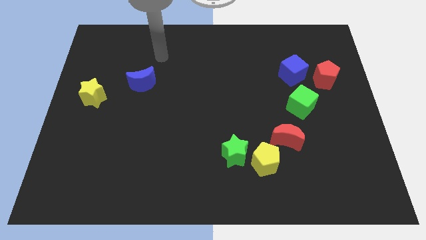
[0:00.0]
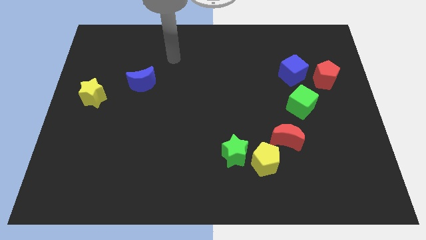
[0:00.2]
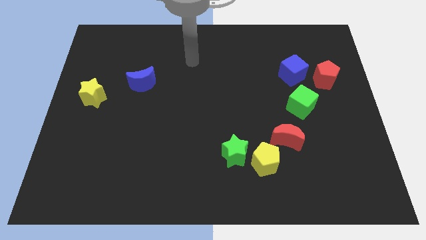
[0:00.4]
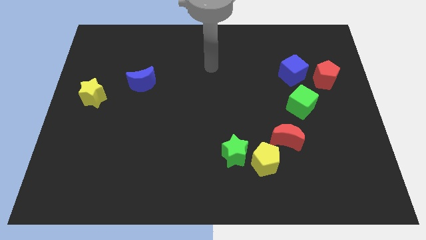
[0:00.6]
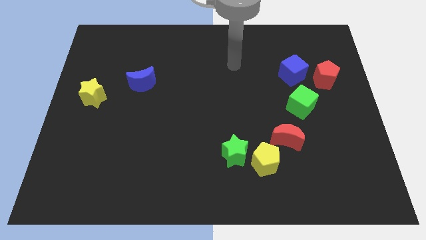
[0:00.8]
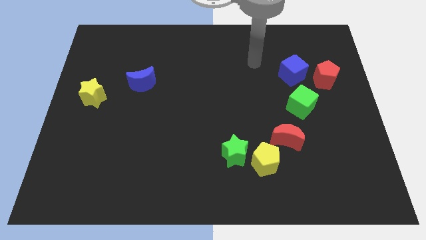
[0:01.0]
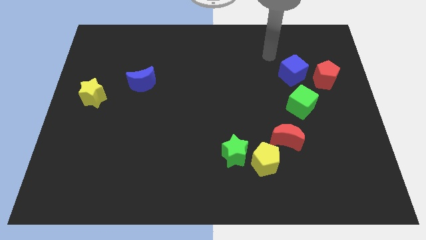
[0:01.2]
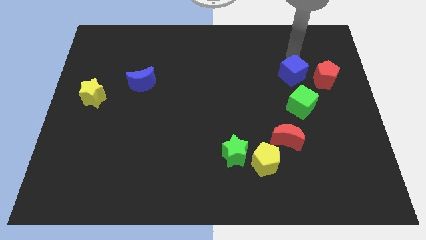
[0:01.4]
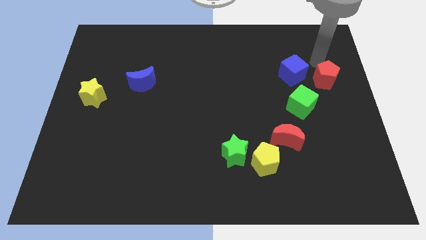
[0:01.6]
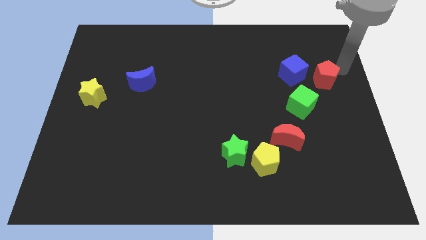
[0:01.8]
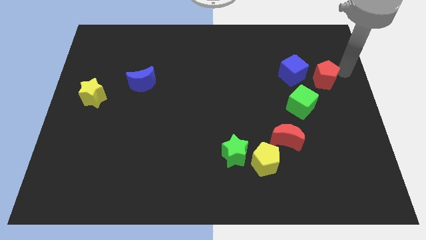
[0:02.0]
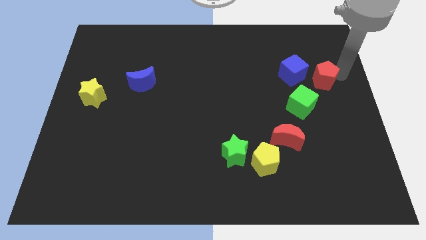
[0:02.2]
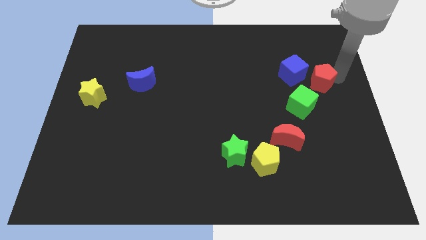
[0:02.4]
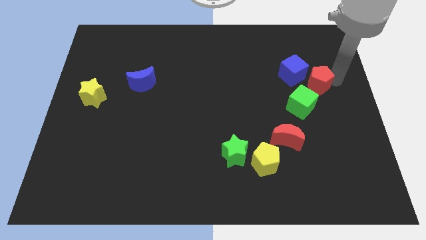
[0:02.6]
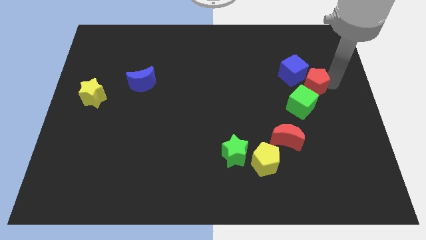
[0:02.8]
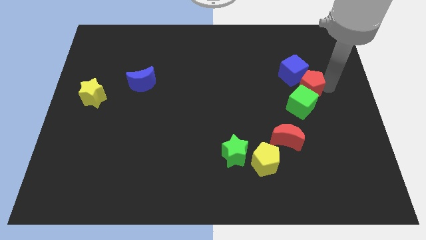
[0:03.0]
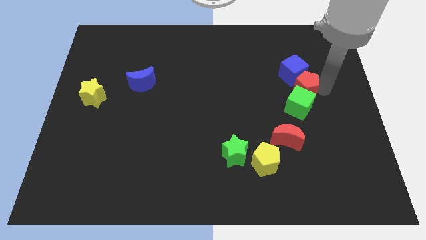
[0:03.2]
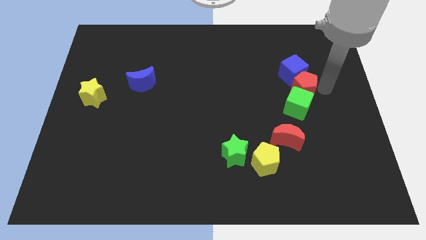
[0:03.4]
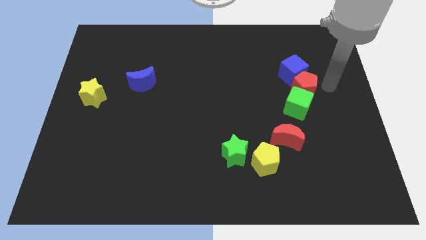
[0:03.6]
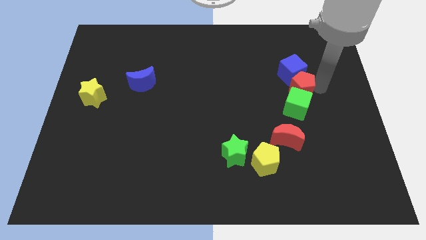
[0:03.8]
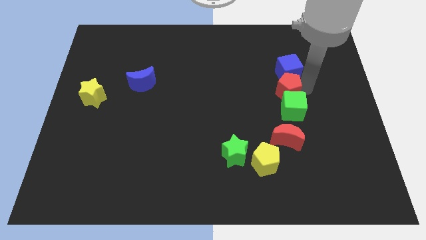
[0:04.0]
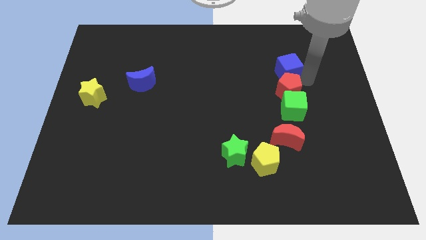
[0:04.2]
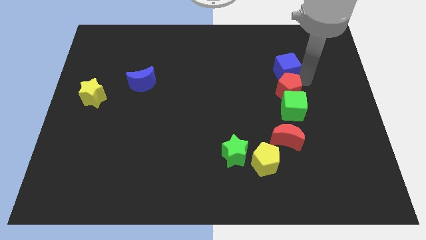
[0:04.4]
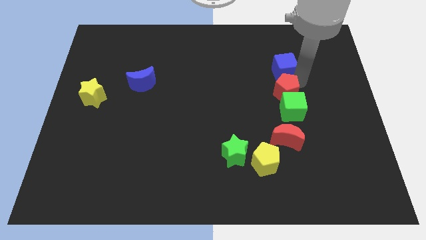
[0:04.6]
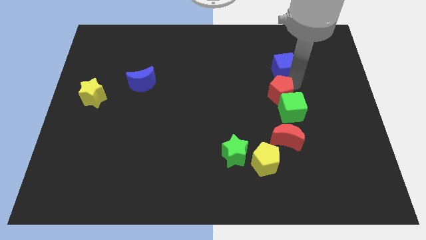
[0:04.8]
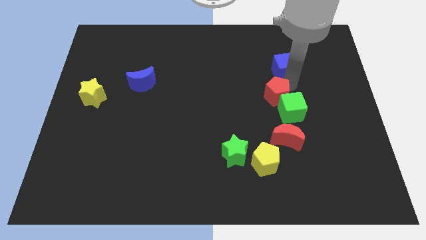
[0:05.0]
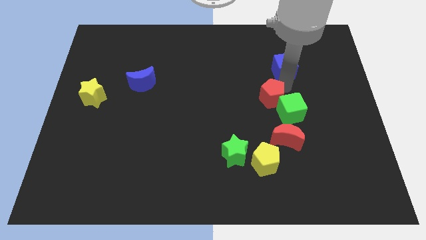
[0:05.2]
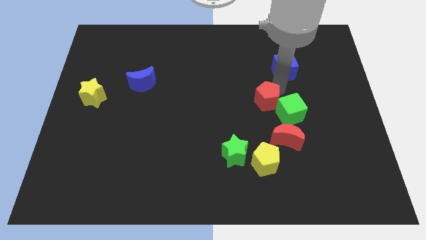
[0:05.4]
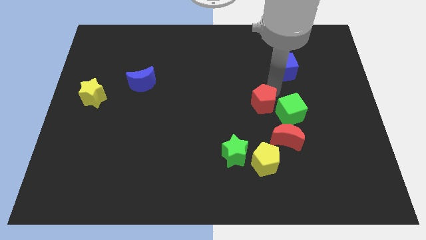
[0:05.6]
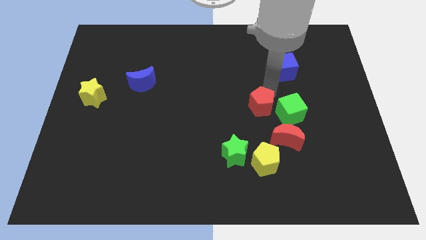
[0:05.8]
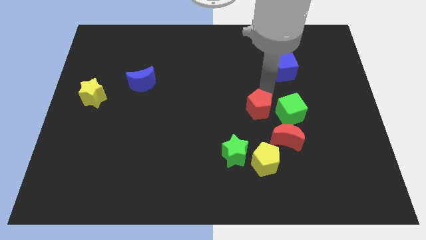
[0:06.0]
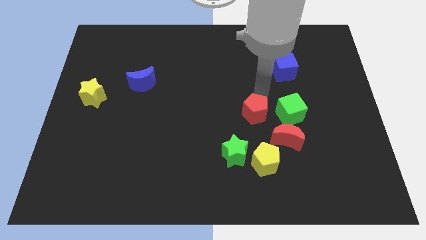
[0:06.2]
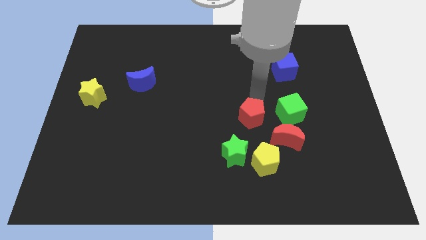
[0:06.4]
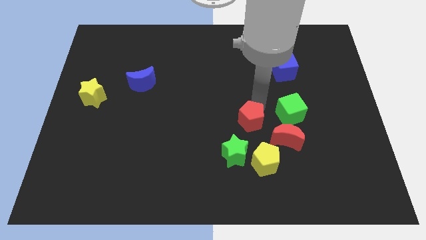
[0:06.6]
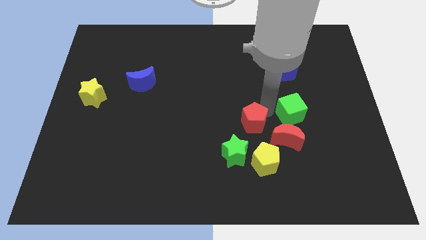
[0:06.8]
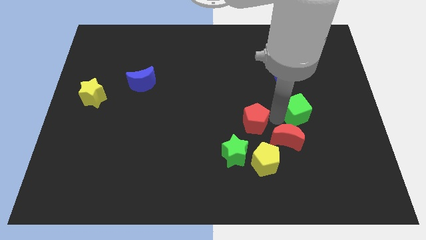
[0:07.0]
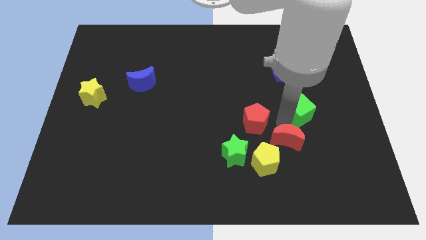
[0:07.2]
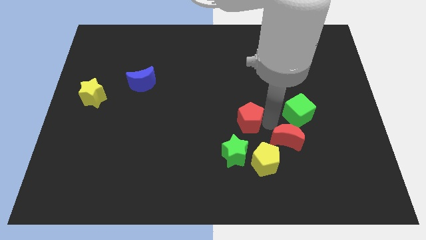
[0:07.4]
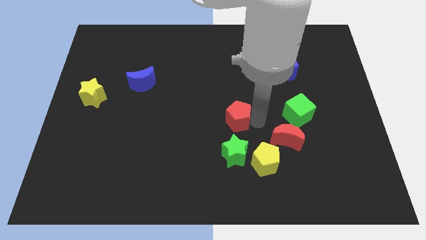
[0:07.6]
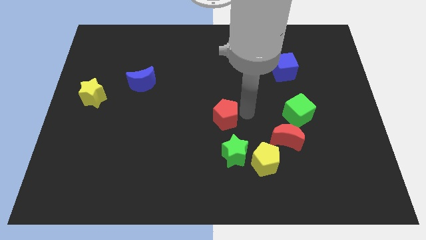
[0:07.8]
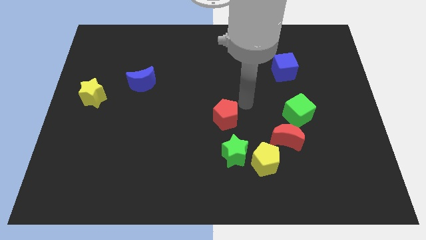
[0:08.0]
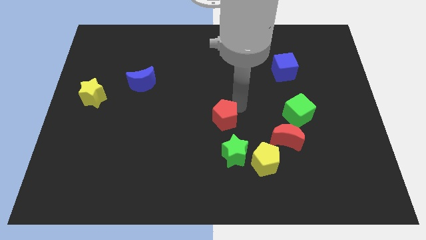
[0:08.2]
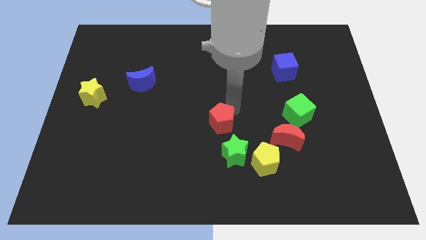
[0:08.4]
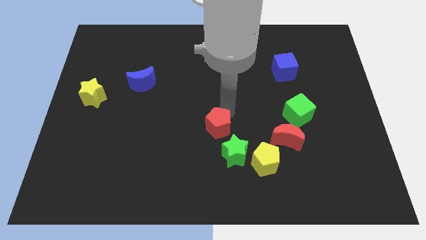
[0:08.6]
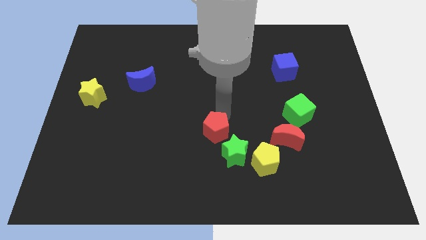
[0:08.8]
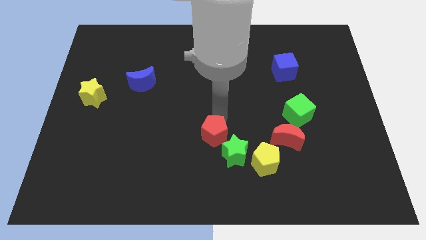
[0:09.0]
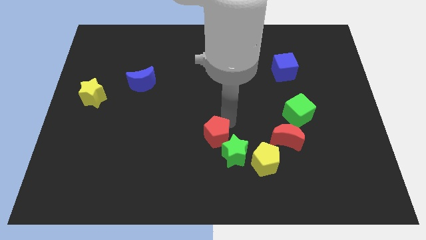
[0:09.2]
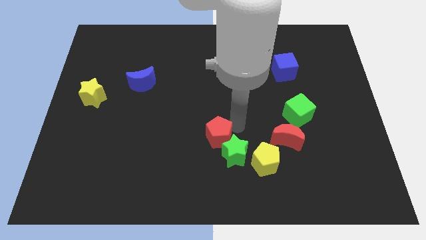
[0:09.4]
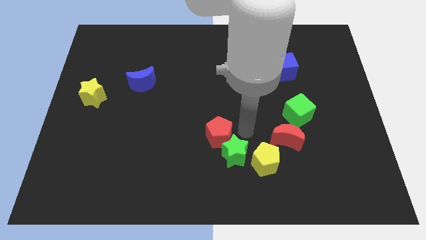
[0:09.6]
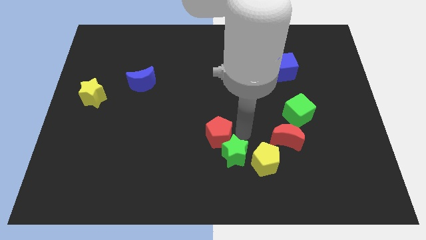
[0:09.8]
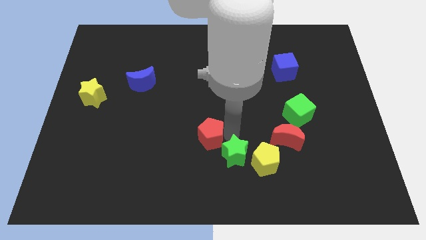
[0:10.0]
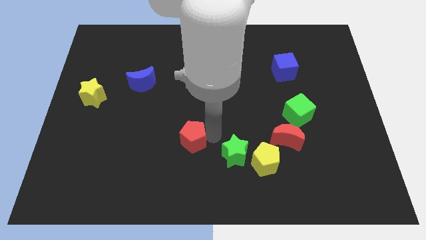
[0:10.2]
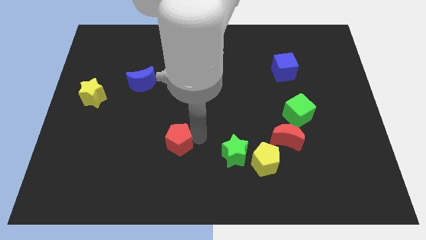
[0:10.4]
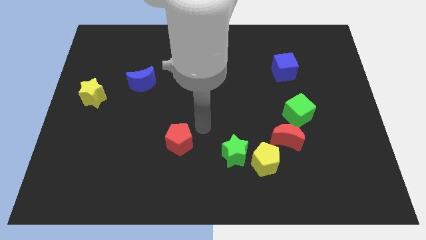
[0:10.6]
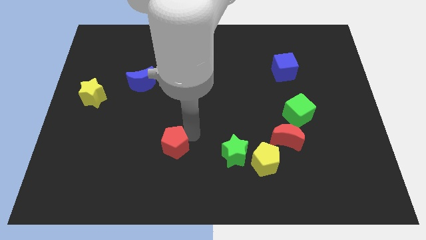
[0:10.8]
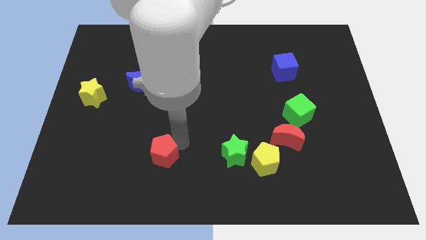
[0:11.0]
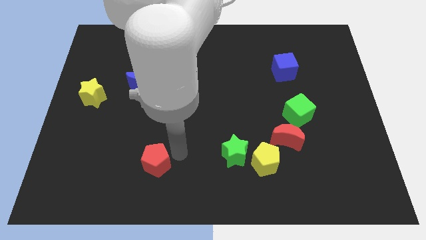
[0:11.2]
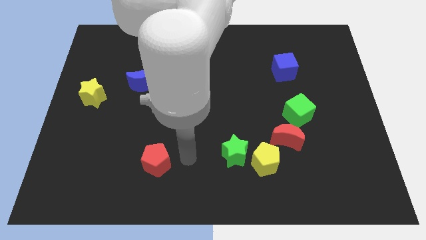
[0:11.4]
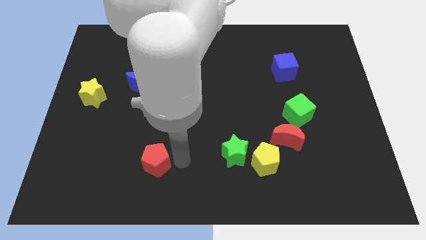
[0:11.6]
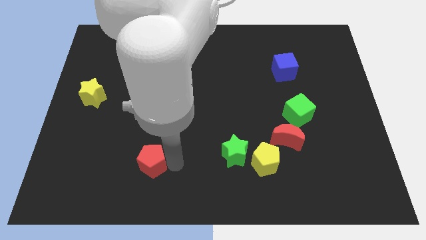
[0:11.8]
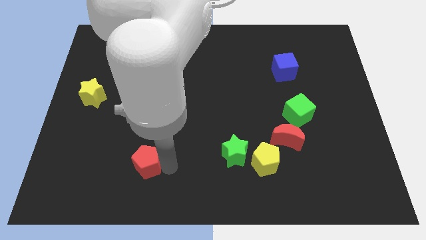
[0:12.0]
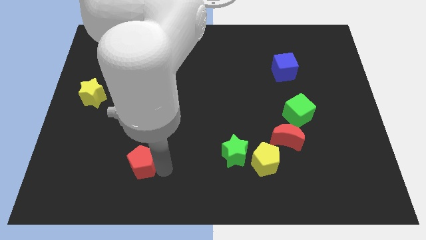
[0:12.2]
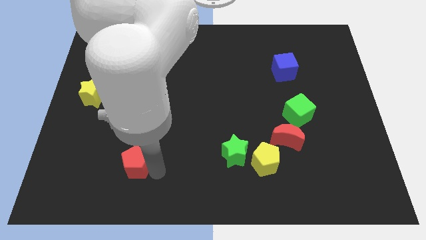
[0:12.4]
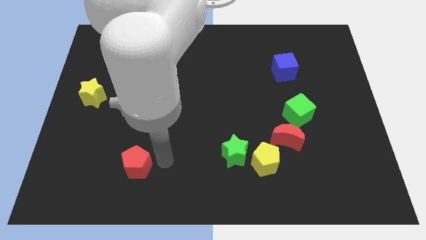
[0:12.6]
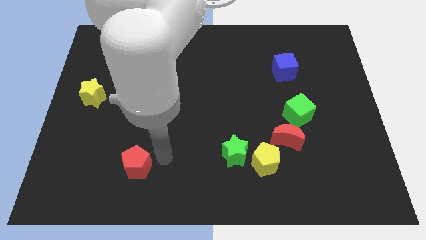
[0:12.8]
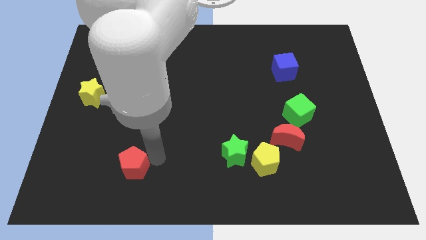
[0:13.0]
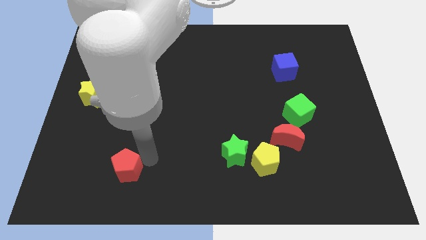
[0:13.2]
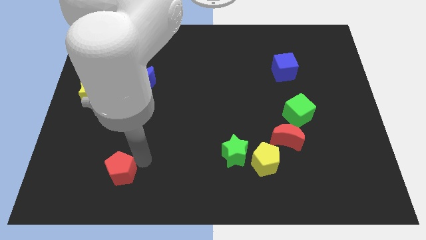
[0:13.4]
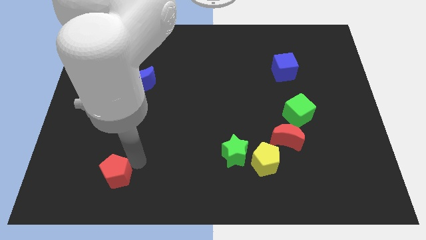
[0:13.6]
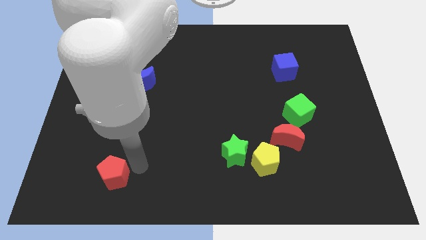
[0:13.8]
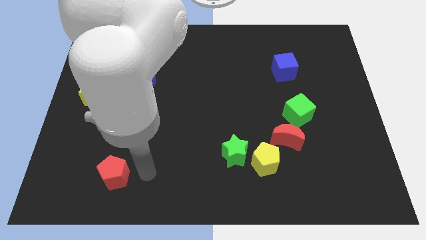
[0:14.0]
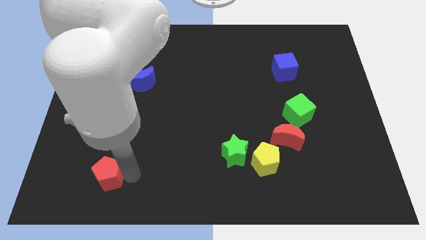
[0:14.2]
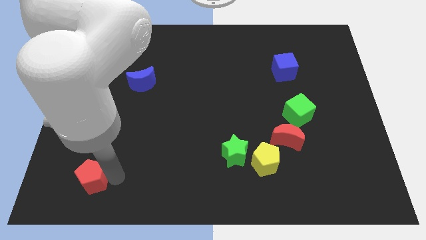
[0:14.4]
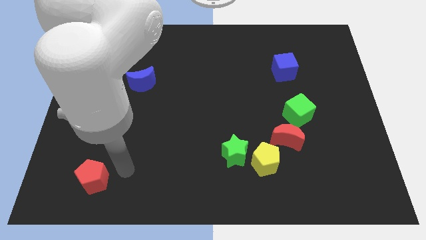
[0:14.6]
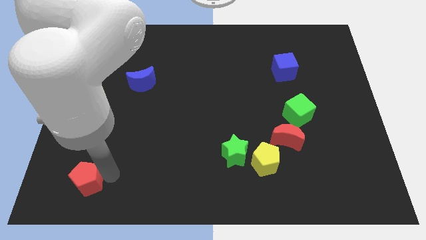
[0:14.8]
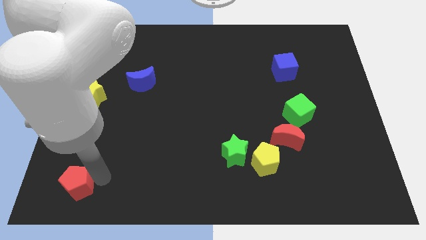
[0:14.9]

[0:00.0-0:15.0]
move the red pentagon to the bottom left
